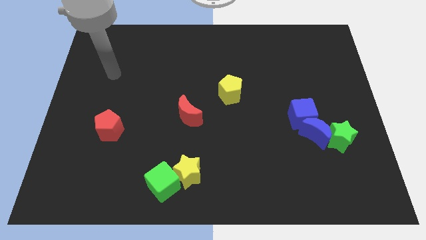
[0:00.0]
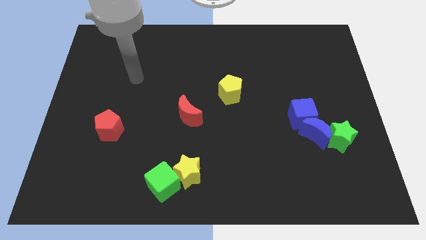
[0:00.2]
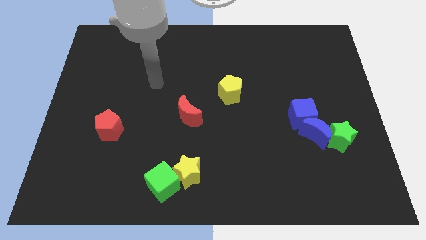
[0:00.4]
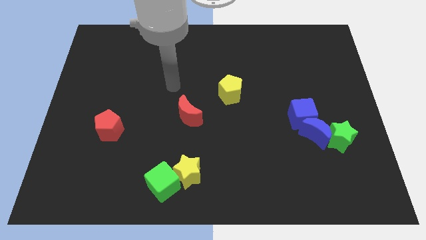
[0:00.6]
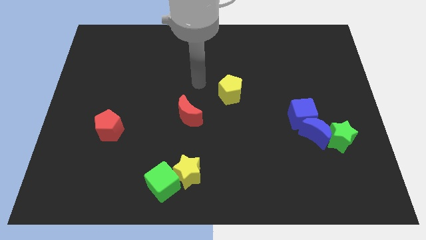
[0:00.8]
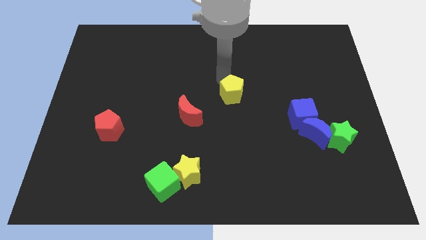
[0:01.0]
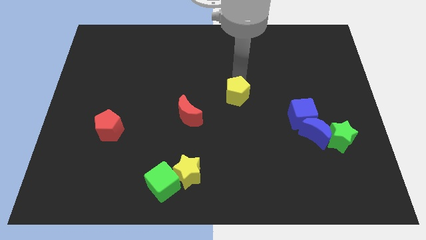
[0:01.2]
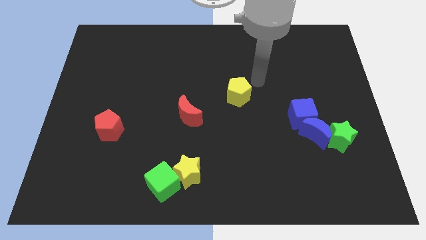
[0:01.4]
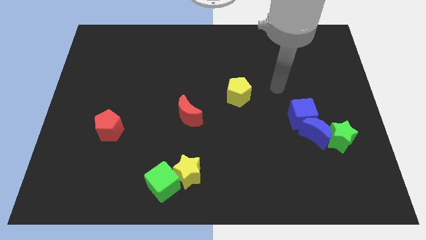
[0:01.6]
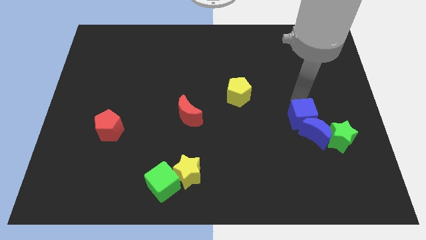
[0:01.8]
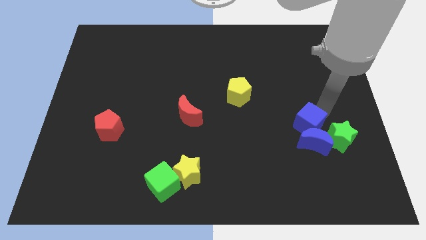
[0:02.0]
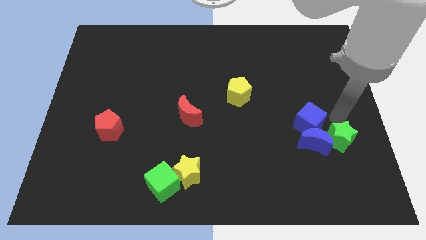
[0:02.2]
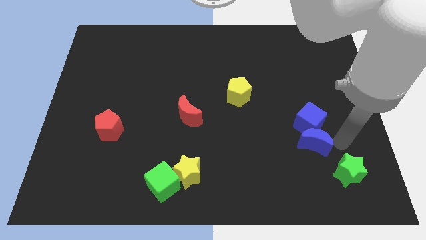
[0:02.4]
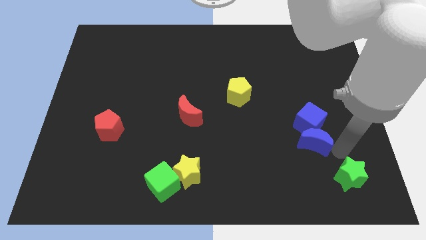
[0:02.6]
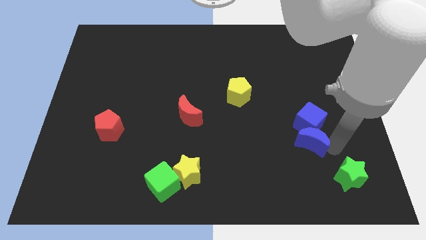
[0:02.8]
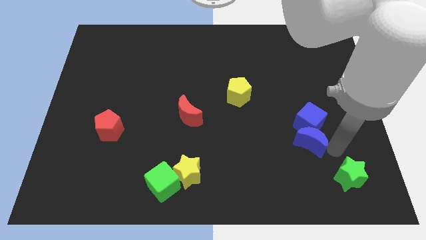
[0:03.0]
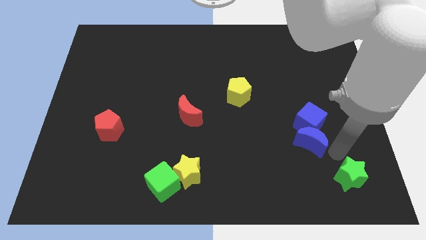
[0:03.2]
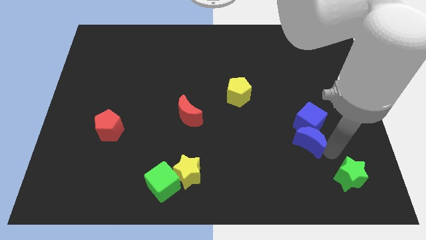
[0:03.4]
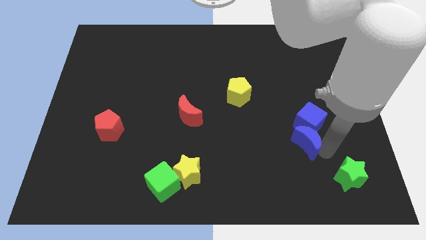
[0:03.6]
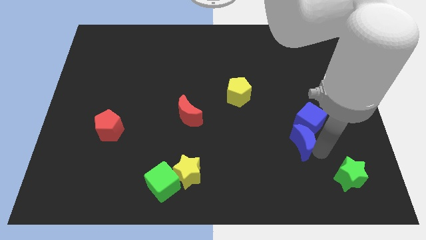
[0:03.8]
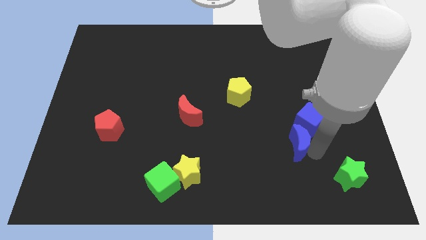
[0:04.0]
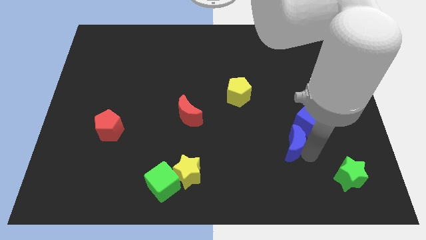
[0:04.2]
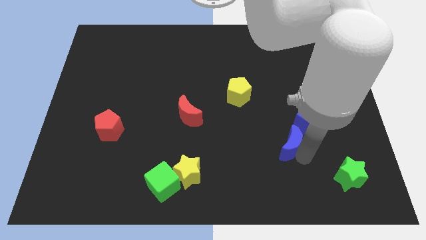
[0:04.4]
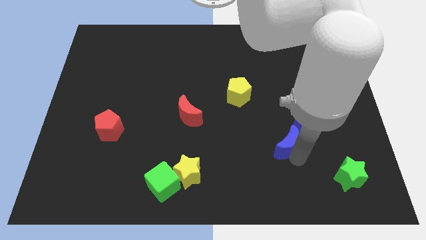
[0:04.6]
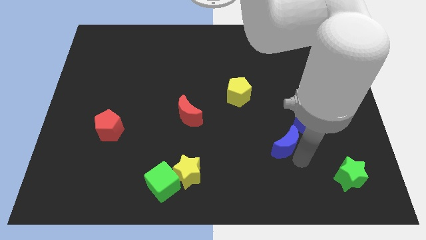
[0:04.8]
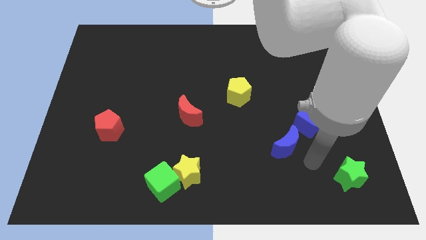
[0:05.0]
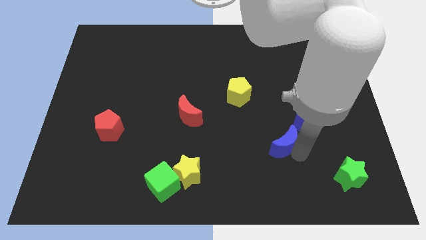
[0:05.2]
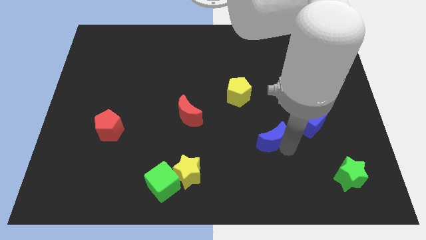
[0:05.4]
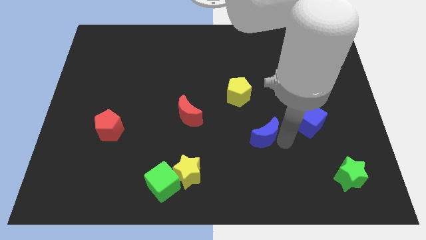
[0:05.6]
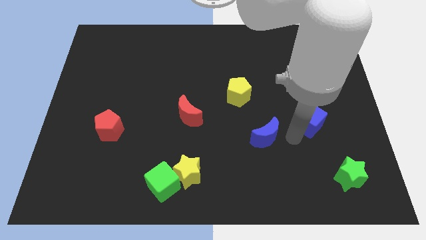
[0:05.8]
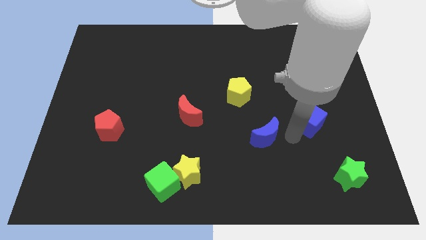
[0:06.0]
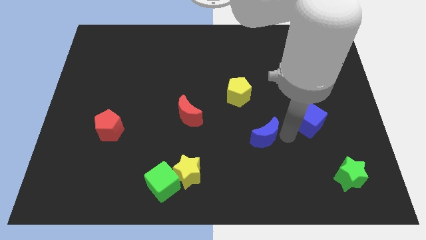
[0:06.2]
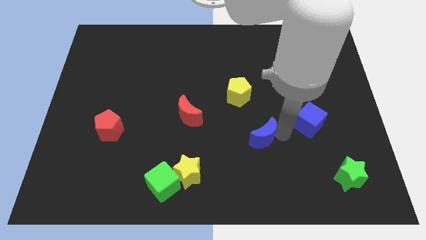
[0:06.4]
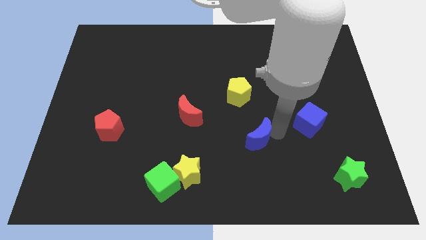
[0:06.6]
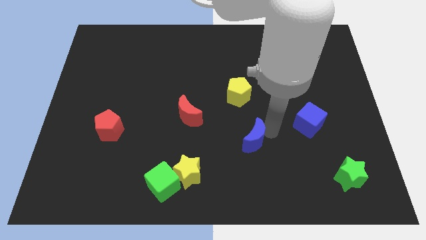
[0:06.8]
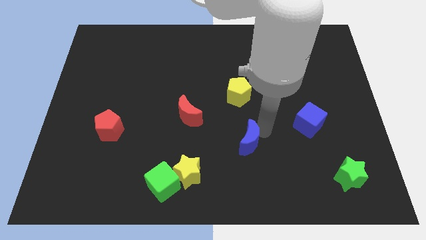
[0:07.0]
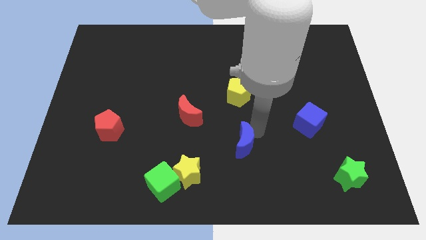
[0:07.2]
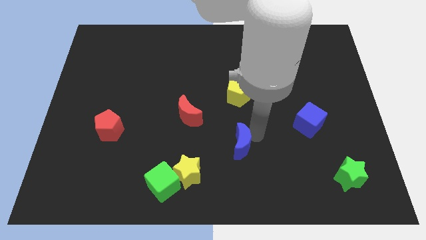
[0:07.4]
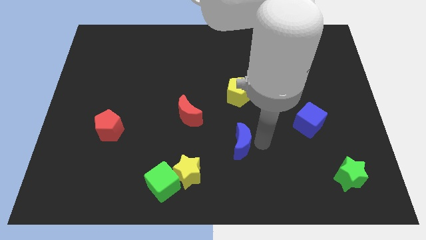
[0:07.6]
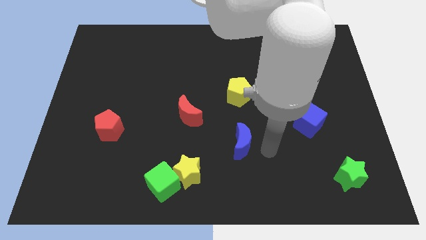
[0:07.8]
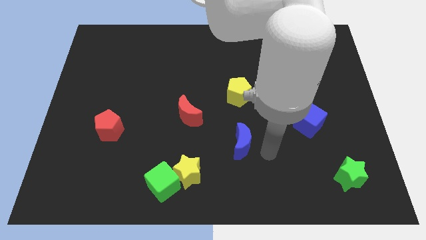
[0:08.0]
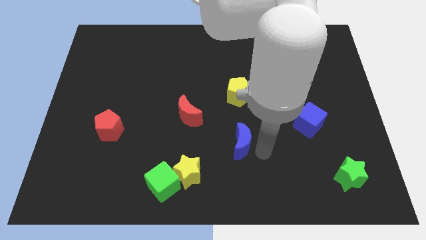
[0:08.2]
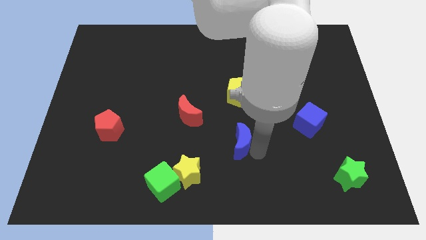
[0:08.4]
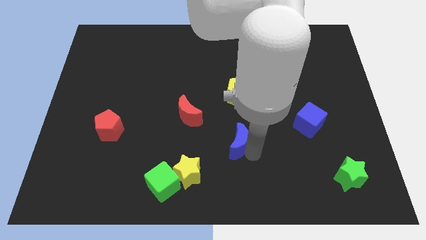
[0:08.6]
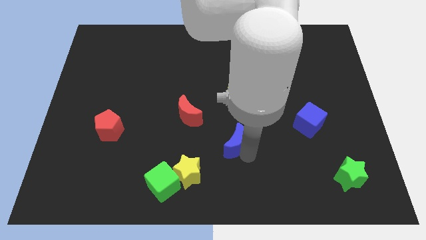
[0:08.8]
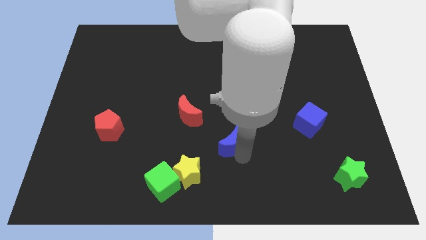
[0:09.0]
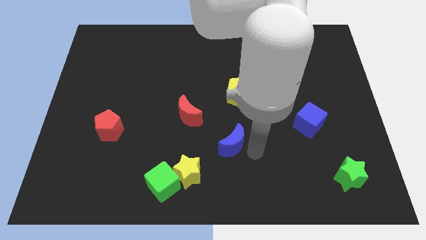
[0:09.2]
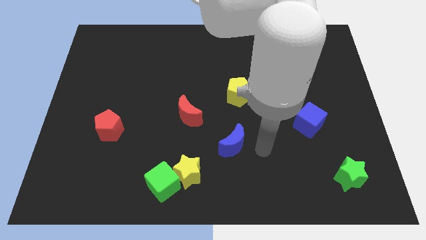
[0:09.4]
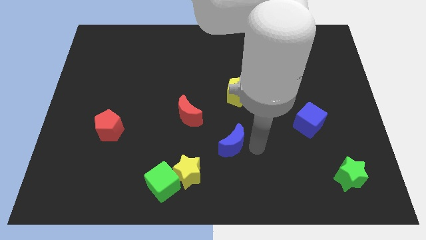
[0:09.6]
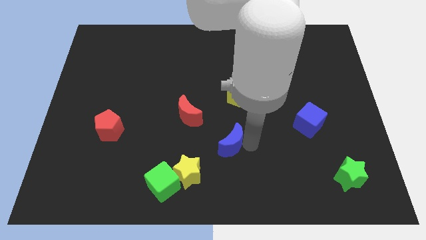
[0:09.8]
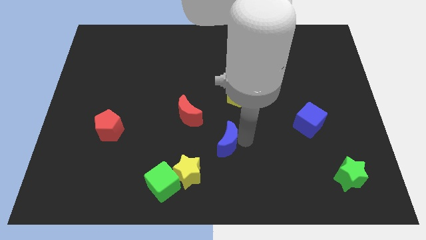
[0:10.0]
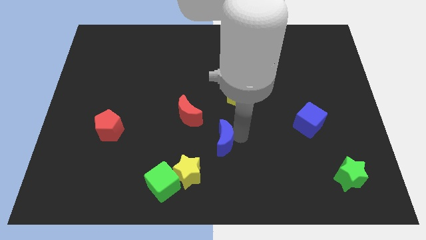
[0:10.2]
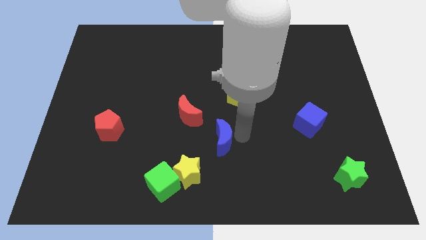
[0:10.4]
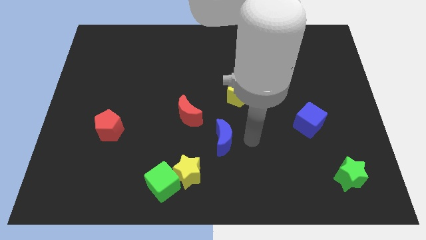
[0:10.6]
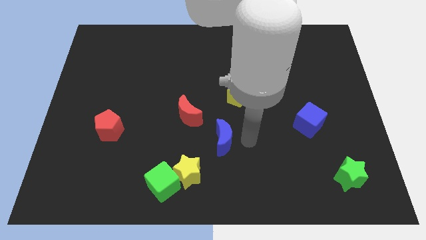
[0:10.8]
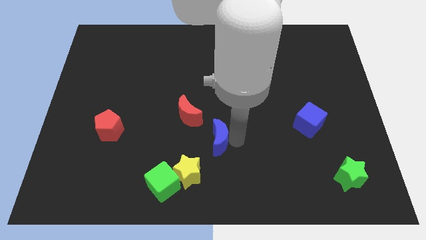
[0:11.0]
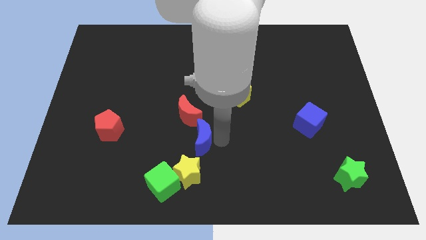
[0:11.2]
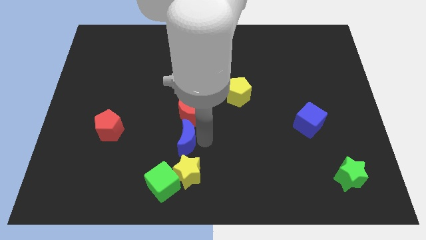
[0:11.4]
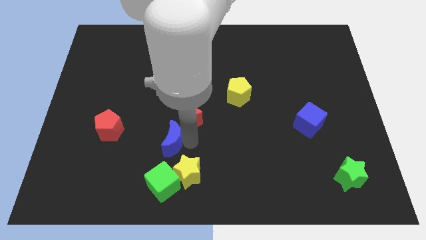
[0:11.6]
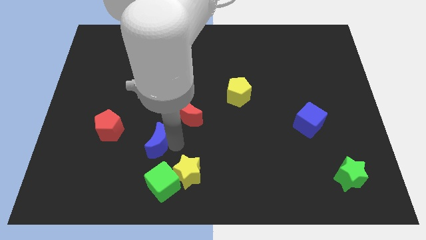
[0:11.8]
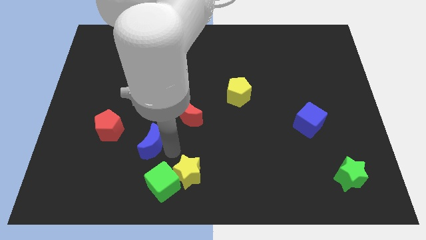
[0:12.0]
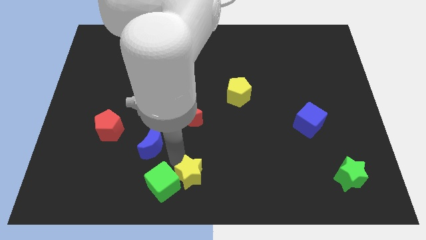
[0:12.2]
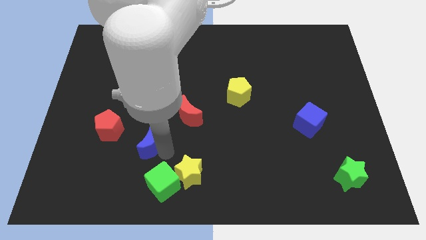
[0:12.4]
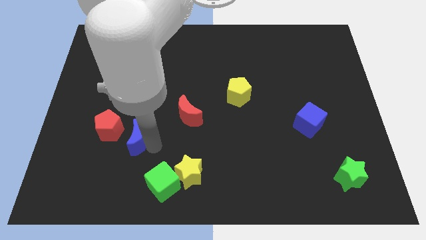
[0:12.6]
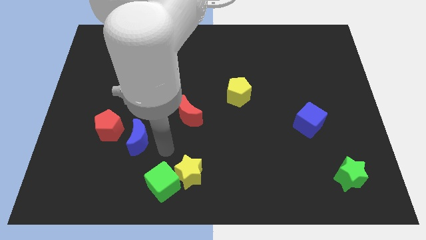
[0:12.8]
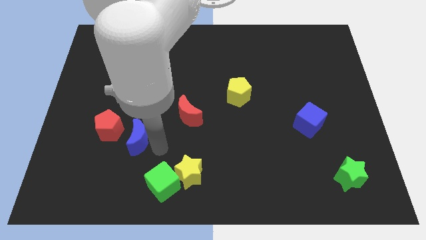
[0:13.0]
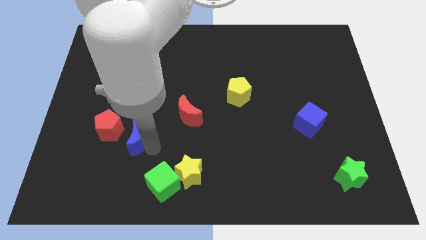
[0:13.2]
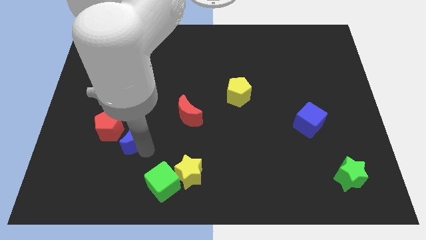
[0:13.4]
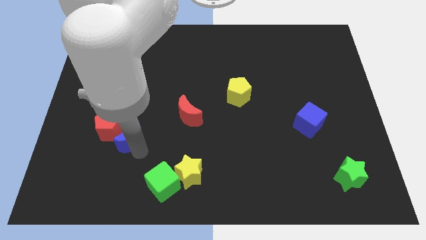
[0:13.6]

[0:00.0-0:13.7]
put the blue moon next to the red pentagon
